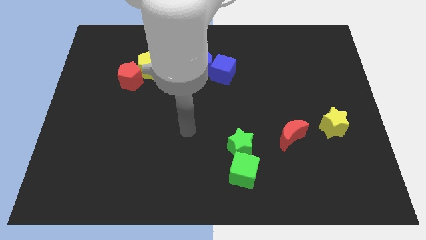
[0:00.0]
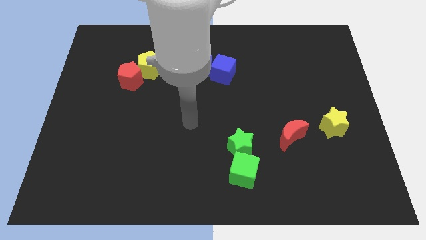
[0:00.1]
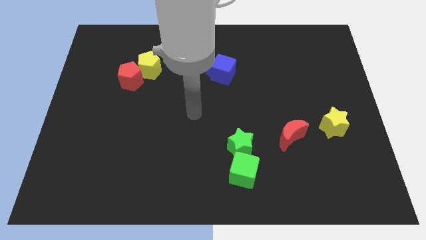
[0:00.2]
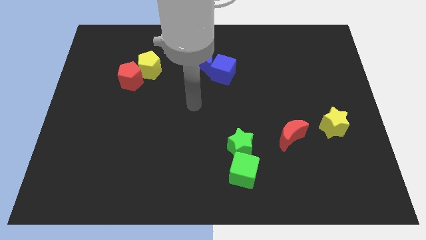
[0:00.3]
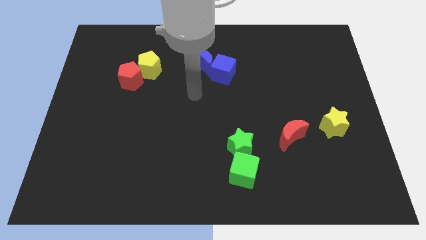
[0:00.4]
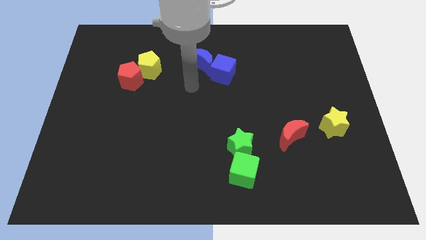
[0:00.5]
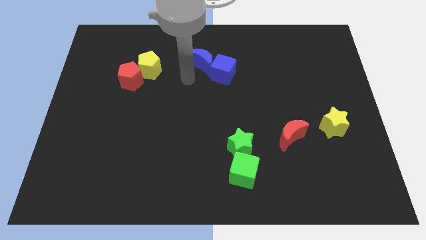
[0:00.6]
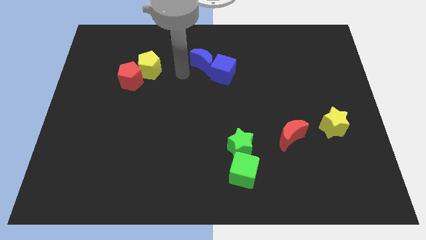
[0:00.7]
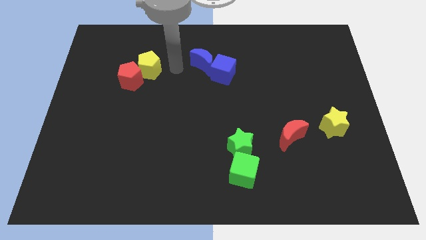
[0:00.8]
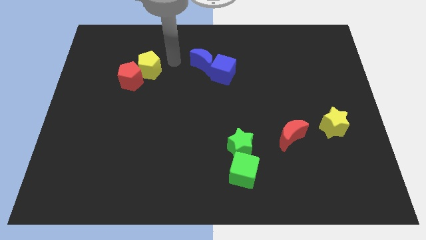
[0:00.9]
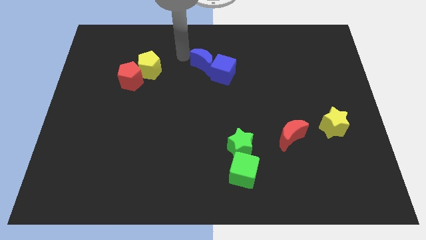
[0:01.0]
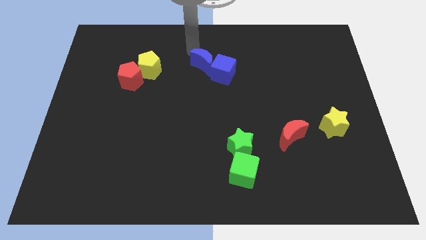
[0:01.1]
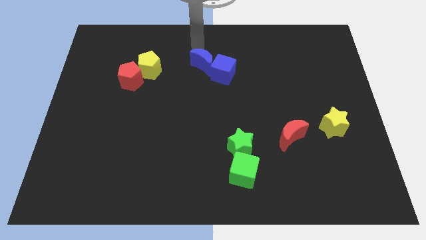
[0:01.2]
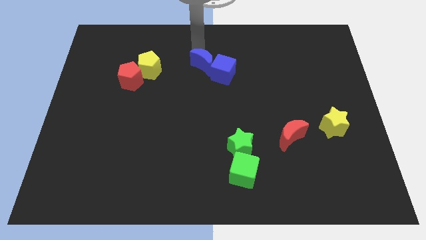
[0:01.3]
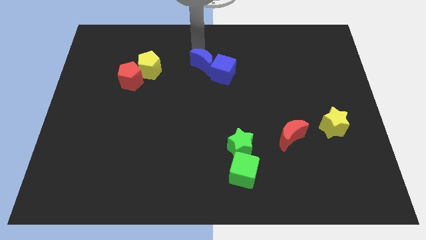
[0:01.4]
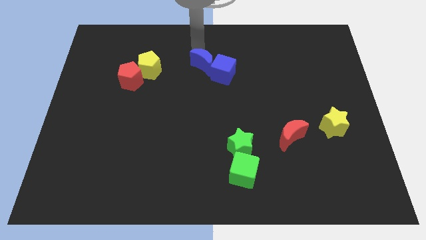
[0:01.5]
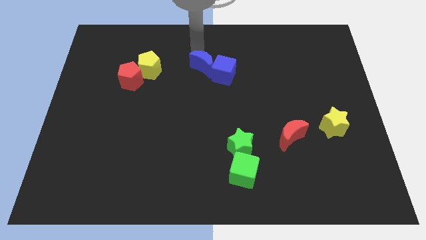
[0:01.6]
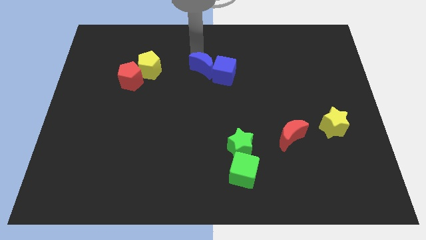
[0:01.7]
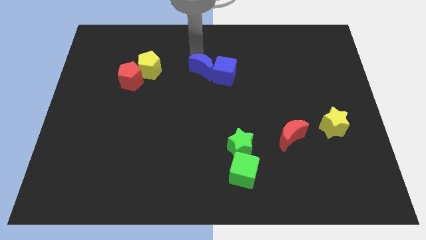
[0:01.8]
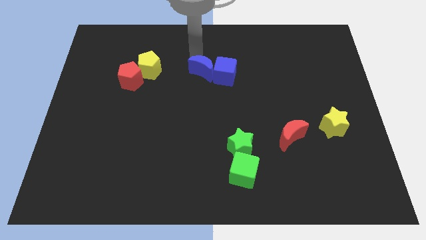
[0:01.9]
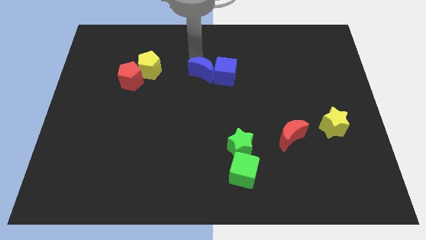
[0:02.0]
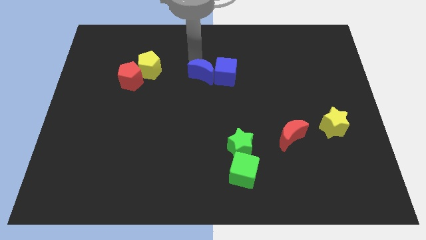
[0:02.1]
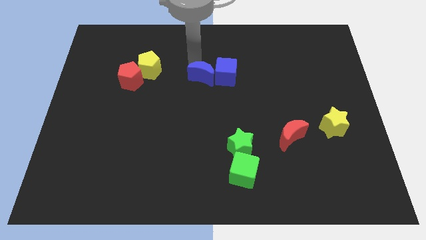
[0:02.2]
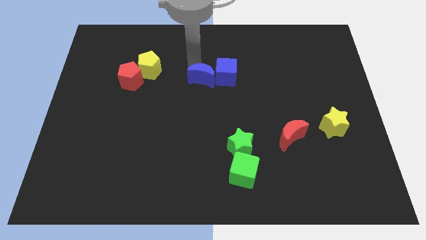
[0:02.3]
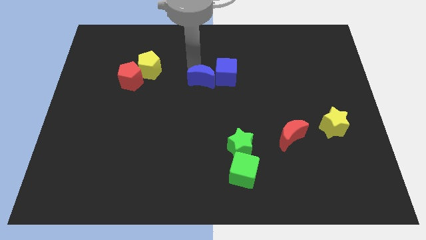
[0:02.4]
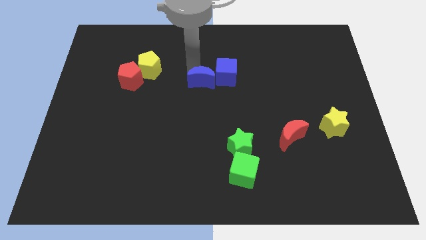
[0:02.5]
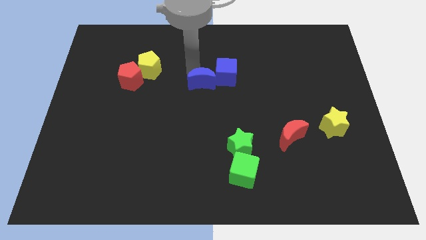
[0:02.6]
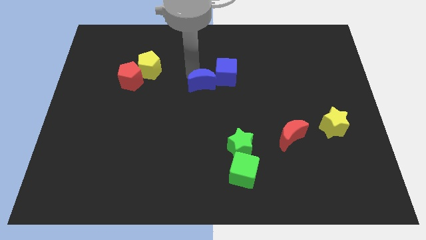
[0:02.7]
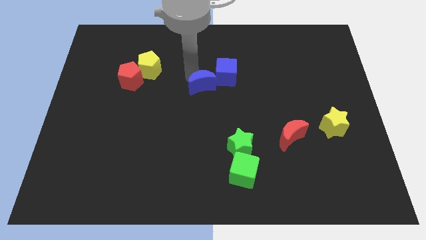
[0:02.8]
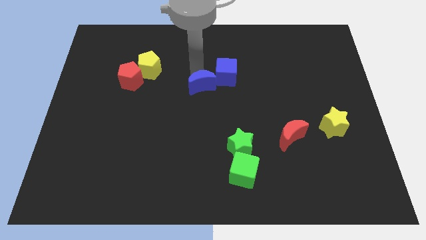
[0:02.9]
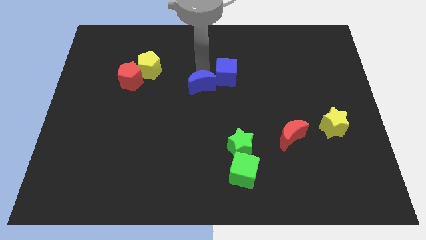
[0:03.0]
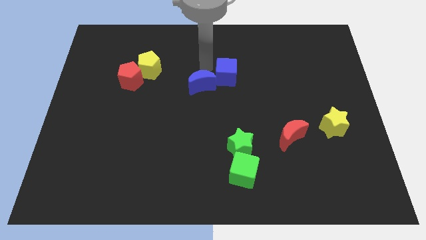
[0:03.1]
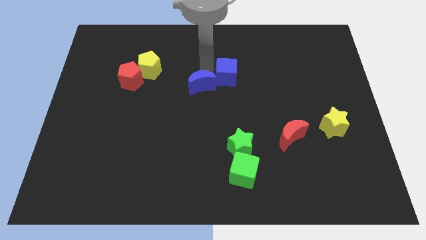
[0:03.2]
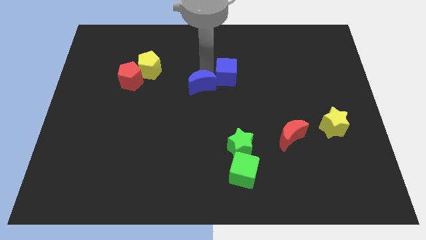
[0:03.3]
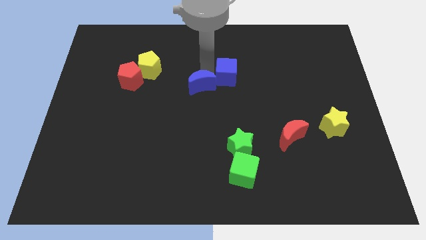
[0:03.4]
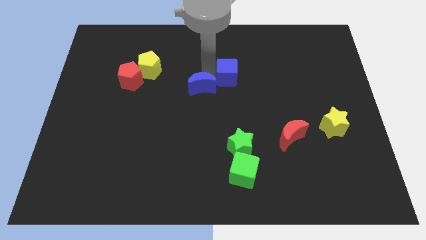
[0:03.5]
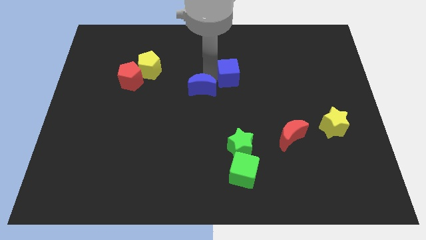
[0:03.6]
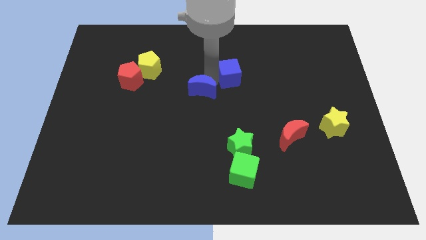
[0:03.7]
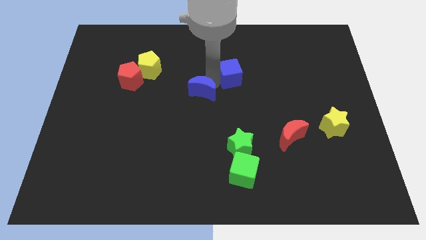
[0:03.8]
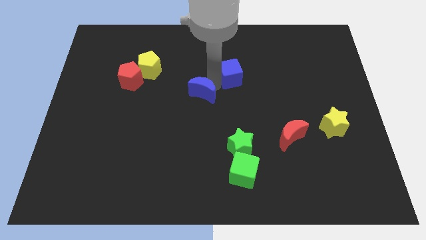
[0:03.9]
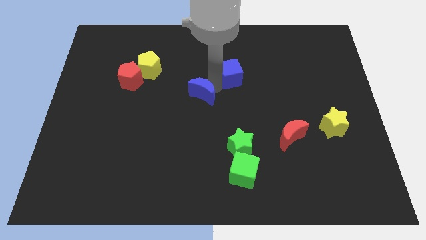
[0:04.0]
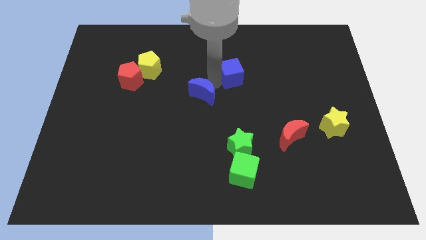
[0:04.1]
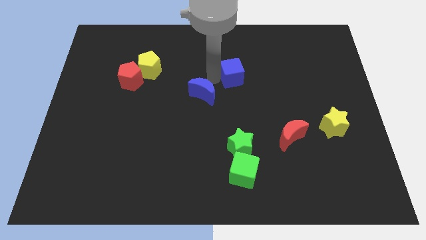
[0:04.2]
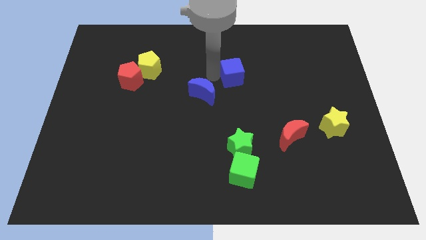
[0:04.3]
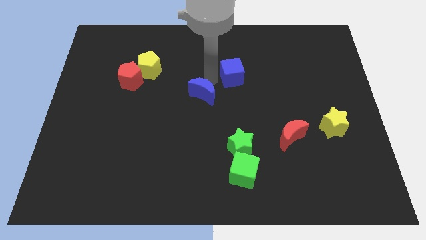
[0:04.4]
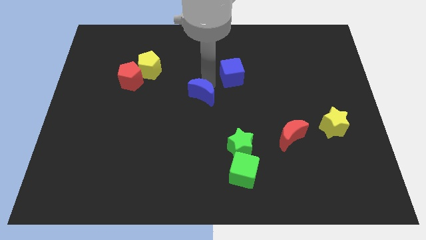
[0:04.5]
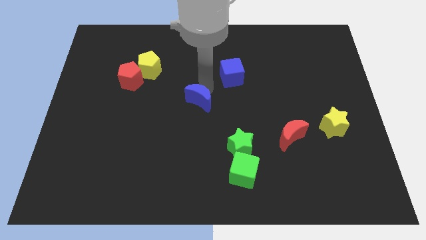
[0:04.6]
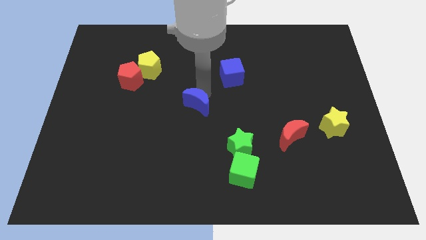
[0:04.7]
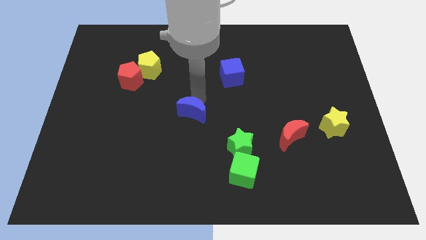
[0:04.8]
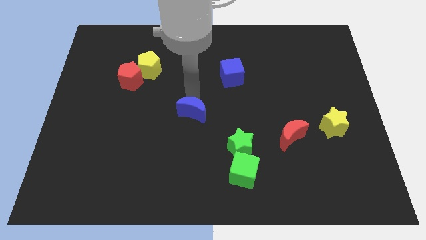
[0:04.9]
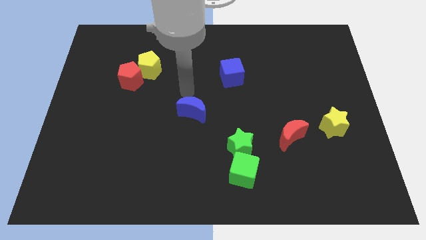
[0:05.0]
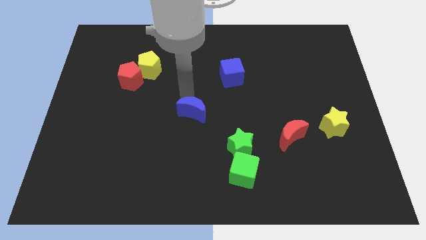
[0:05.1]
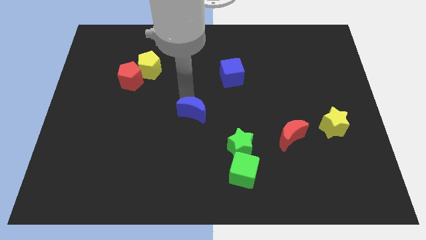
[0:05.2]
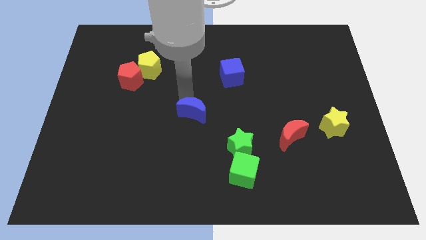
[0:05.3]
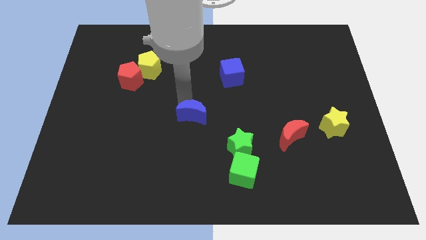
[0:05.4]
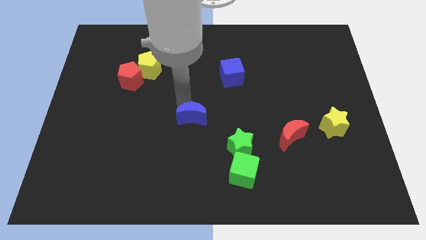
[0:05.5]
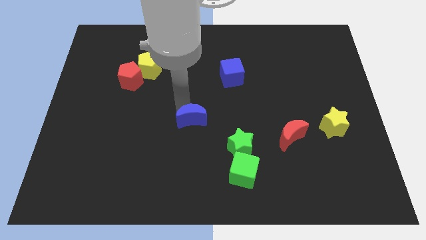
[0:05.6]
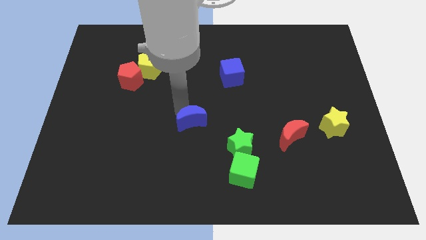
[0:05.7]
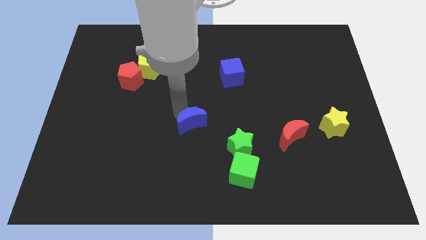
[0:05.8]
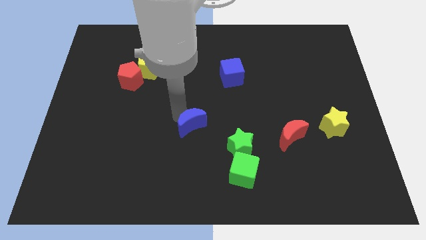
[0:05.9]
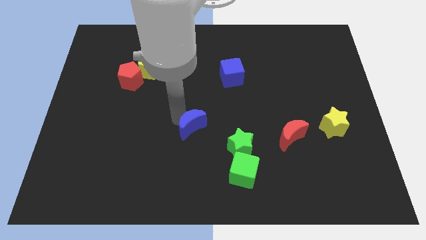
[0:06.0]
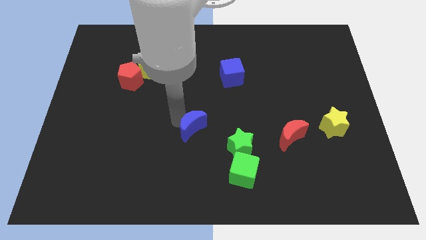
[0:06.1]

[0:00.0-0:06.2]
move the blue moon downwards

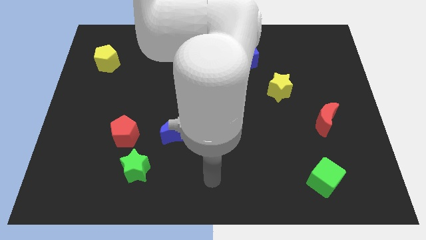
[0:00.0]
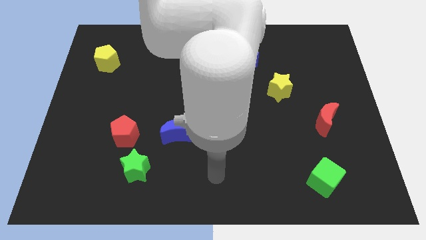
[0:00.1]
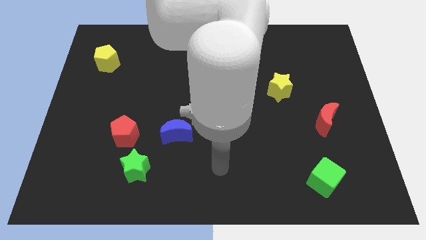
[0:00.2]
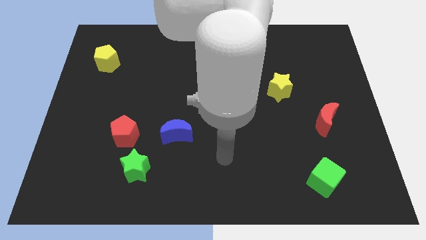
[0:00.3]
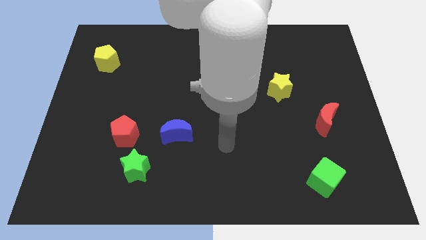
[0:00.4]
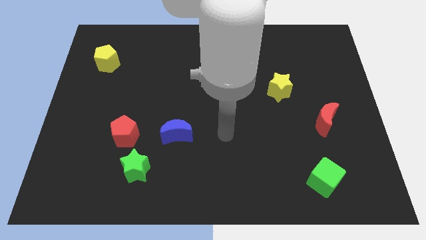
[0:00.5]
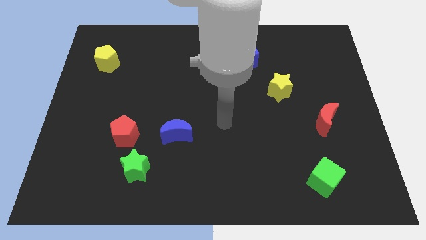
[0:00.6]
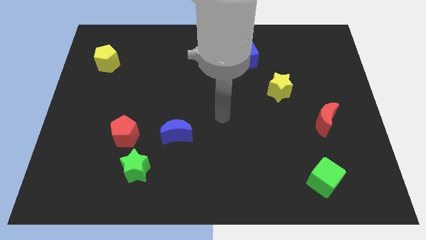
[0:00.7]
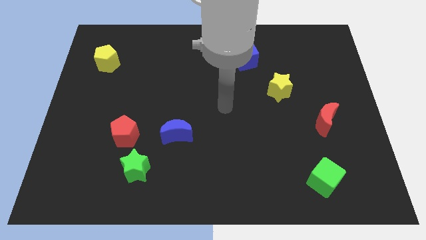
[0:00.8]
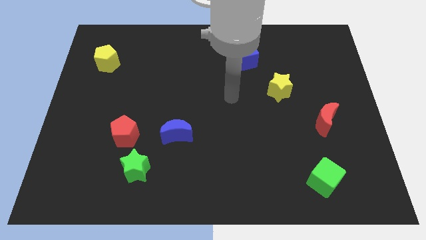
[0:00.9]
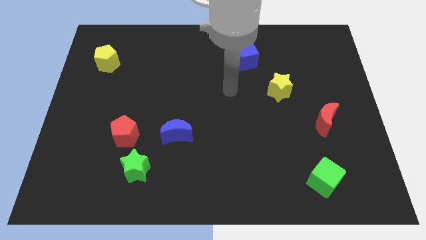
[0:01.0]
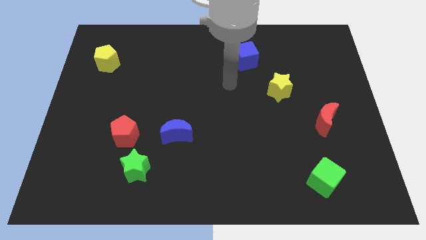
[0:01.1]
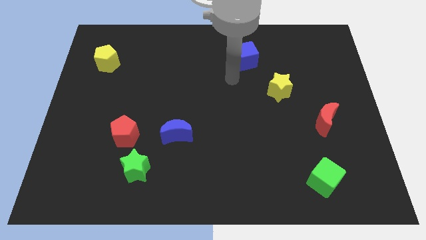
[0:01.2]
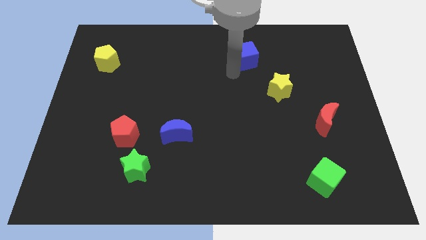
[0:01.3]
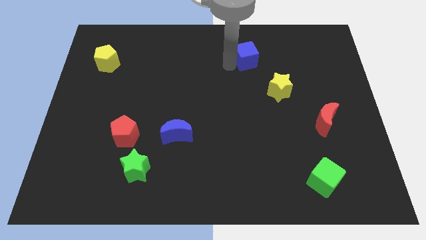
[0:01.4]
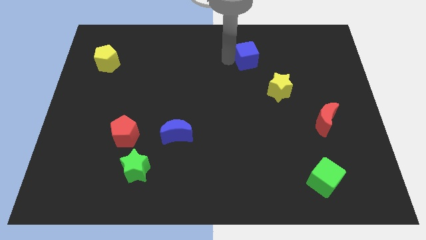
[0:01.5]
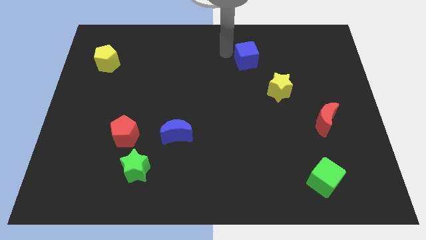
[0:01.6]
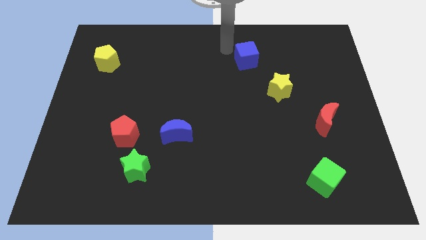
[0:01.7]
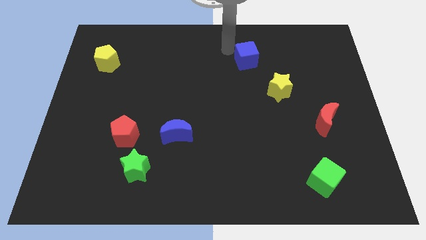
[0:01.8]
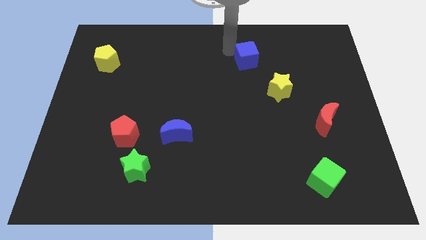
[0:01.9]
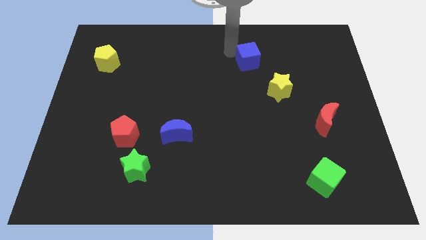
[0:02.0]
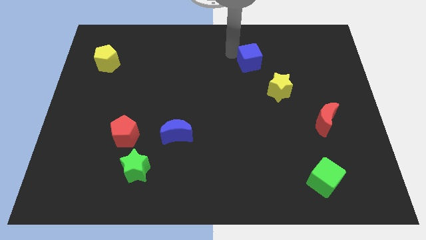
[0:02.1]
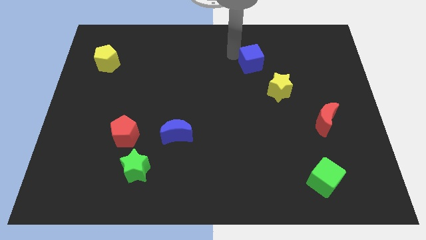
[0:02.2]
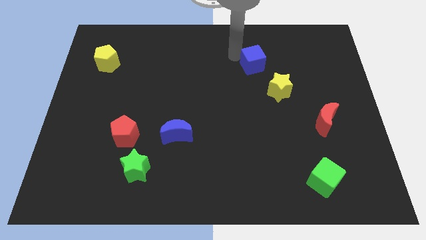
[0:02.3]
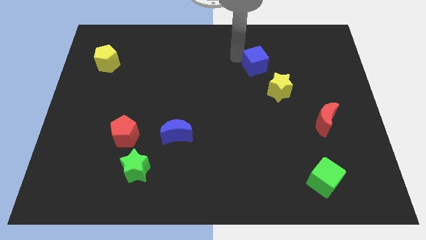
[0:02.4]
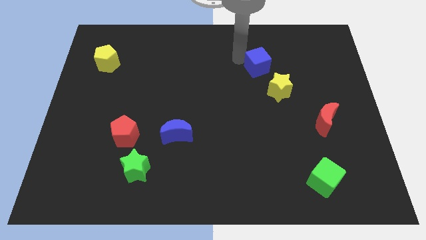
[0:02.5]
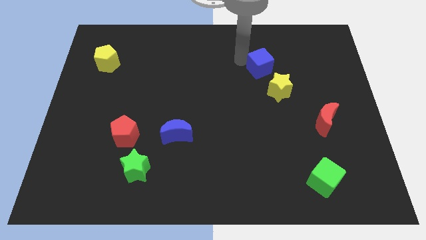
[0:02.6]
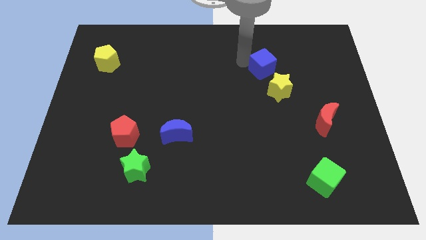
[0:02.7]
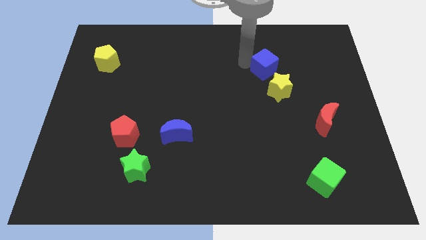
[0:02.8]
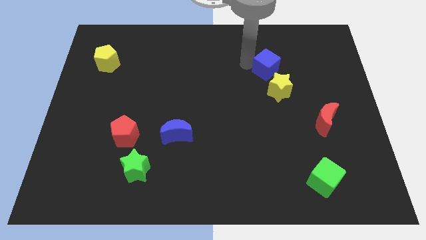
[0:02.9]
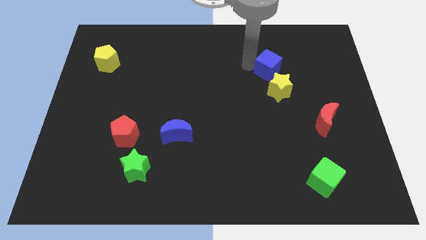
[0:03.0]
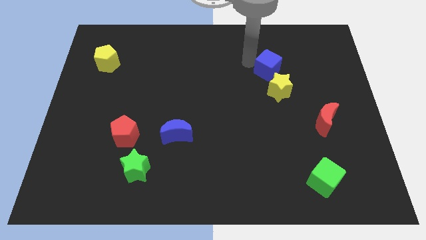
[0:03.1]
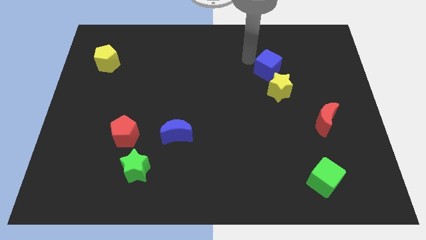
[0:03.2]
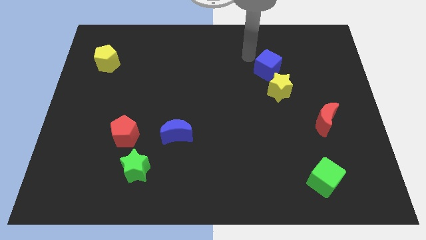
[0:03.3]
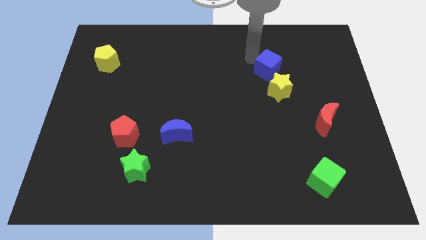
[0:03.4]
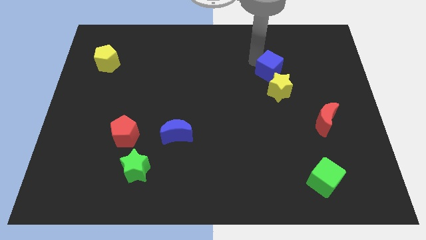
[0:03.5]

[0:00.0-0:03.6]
push the blue cube slightly down and to the right diagonally
